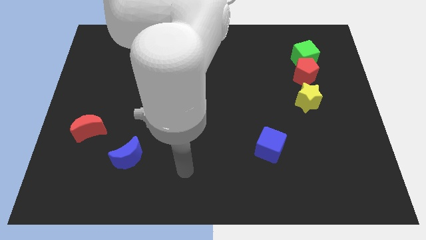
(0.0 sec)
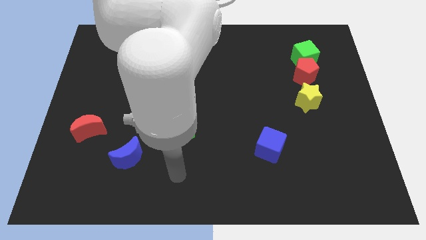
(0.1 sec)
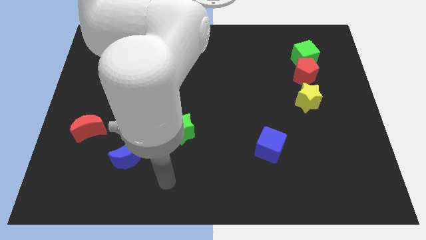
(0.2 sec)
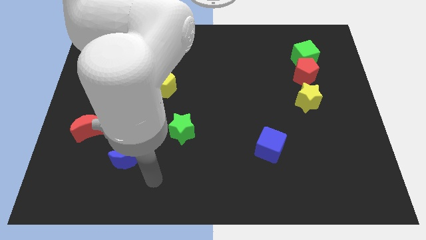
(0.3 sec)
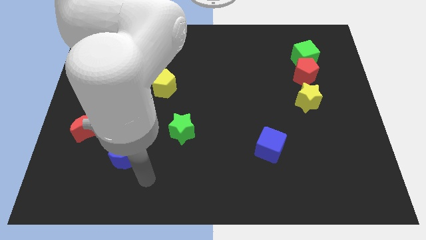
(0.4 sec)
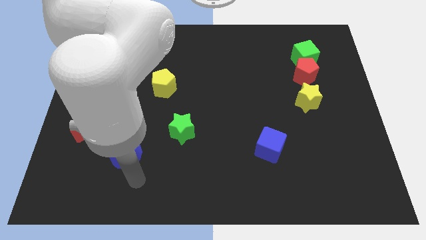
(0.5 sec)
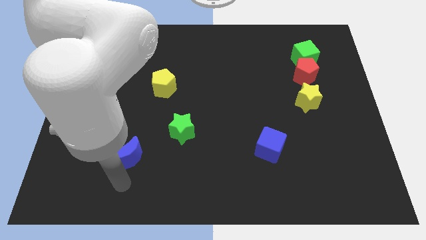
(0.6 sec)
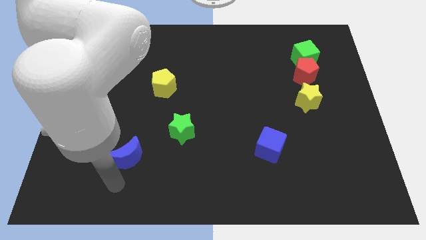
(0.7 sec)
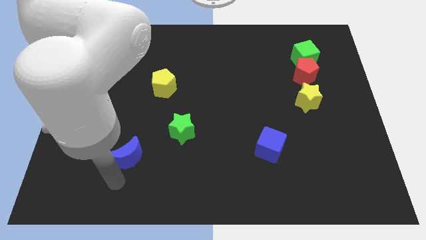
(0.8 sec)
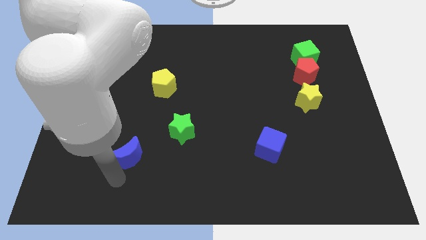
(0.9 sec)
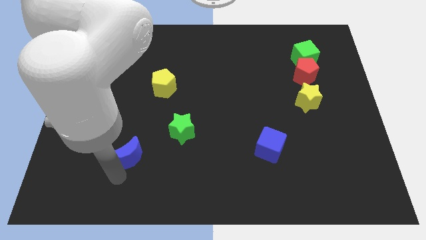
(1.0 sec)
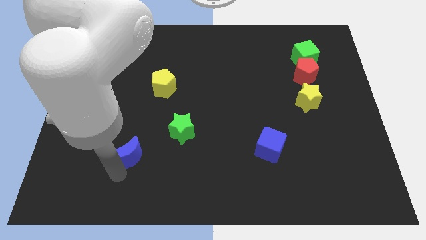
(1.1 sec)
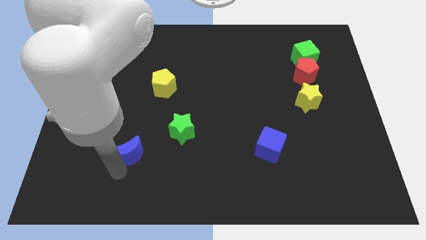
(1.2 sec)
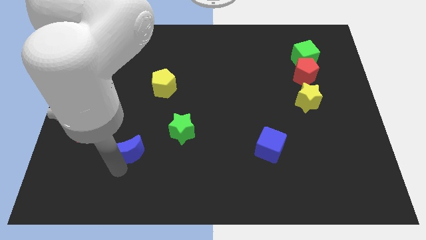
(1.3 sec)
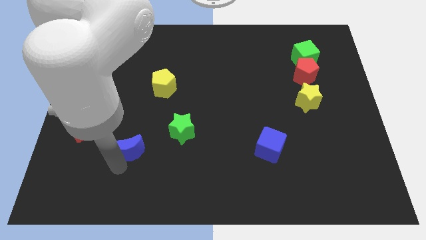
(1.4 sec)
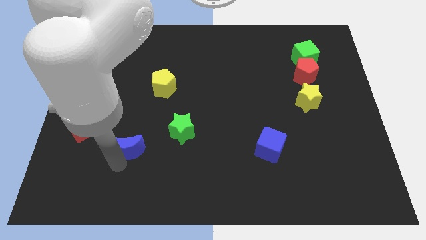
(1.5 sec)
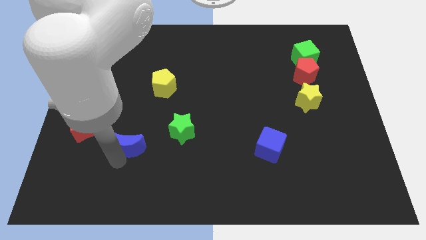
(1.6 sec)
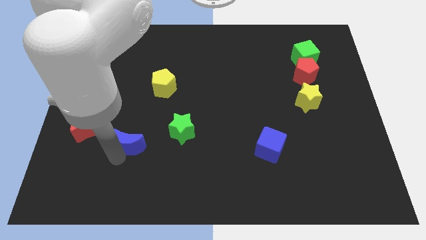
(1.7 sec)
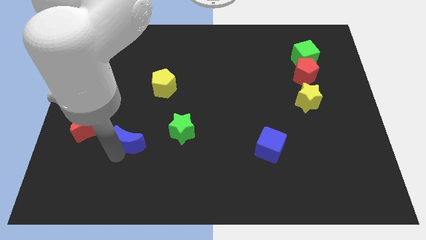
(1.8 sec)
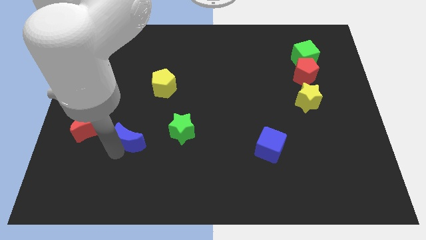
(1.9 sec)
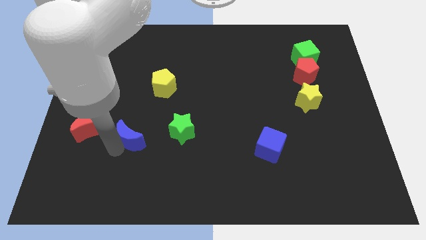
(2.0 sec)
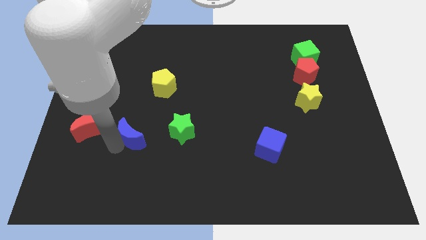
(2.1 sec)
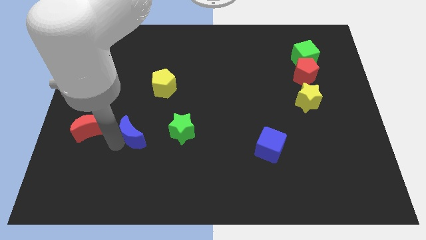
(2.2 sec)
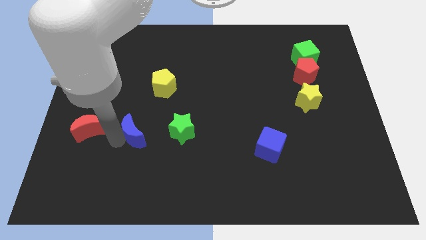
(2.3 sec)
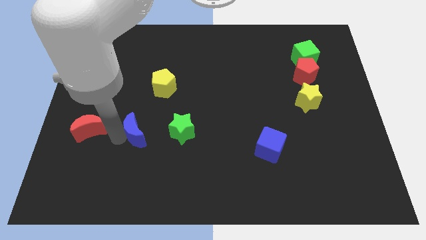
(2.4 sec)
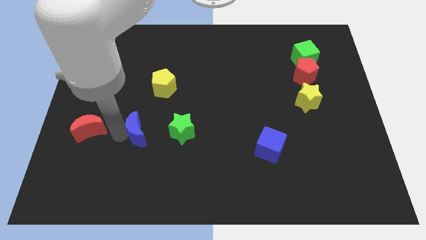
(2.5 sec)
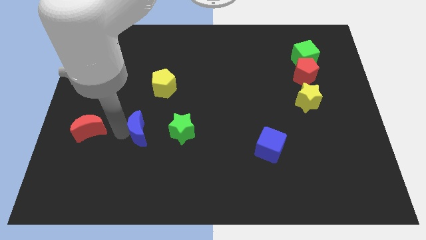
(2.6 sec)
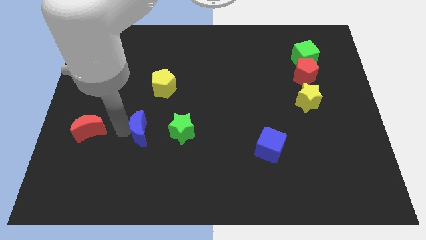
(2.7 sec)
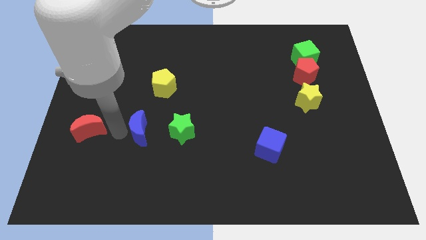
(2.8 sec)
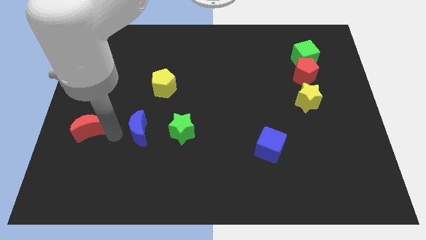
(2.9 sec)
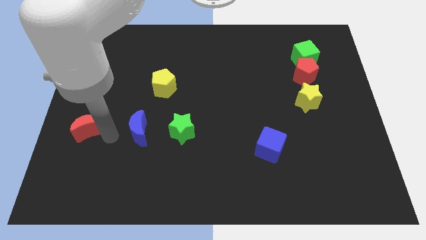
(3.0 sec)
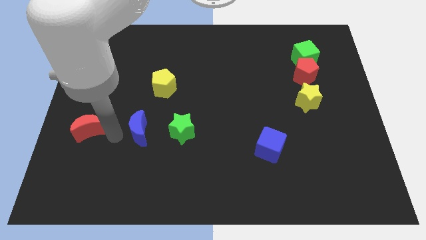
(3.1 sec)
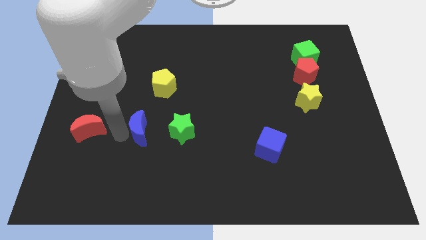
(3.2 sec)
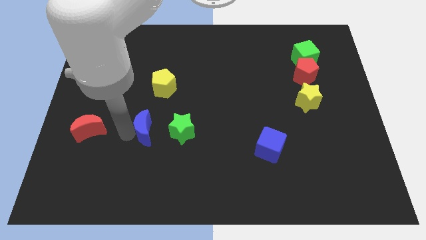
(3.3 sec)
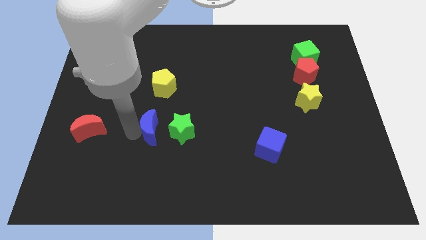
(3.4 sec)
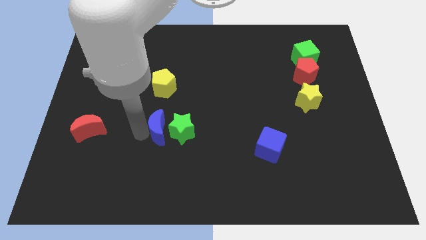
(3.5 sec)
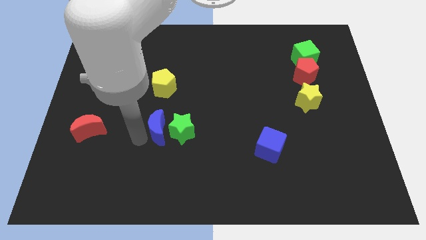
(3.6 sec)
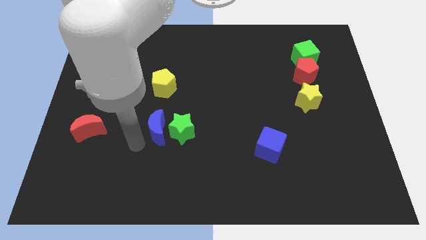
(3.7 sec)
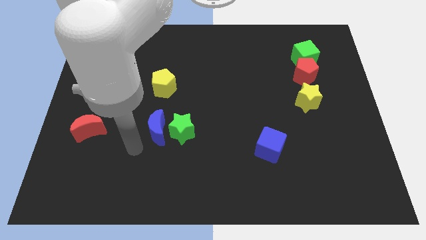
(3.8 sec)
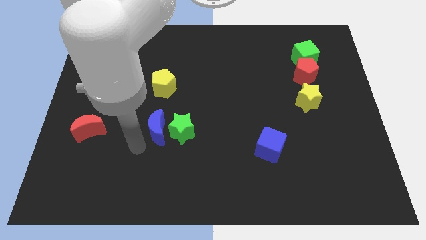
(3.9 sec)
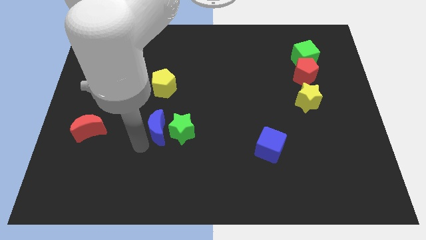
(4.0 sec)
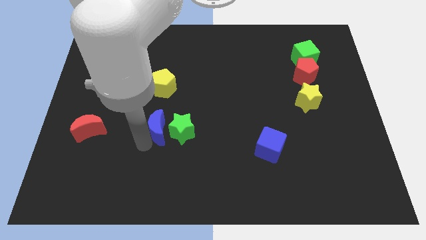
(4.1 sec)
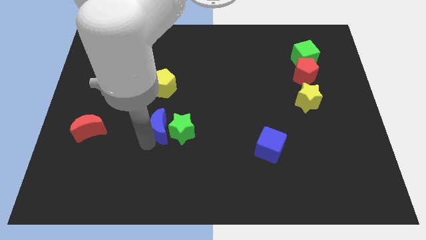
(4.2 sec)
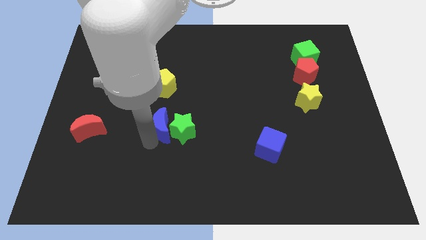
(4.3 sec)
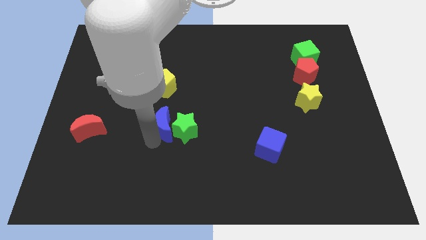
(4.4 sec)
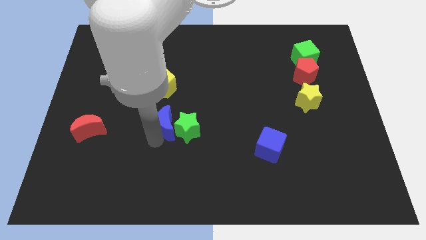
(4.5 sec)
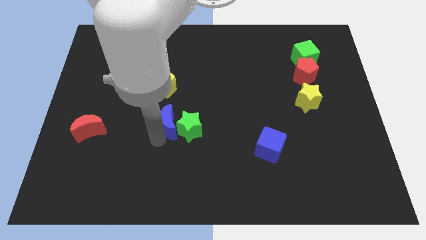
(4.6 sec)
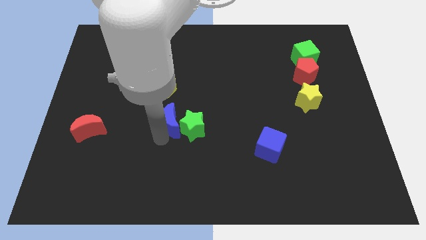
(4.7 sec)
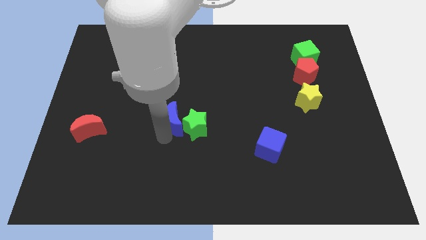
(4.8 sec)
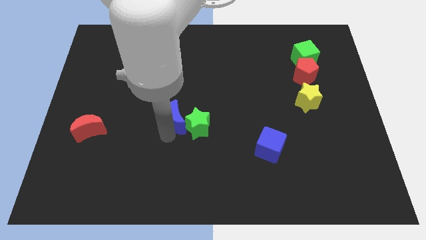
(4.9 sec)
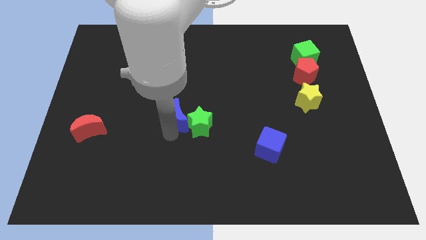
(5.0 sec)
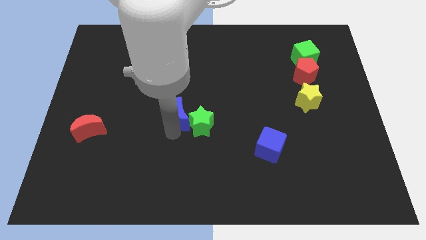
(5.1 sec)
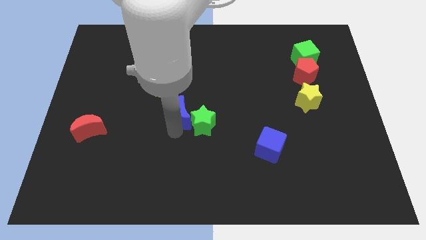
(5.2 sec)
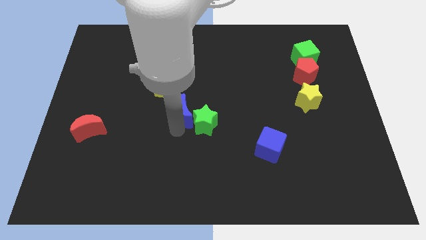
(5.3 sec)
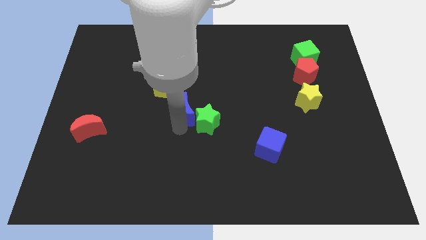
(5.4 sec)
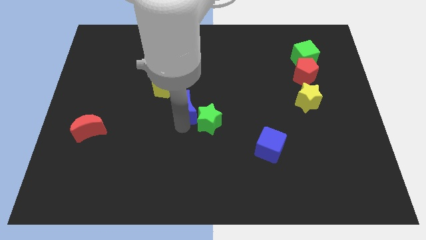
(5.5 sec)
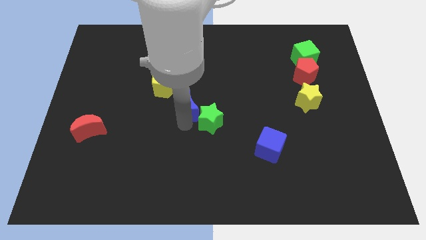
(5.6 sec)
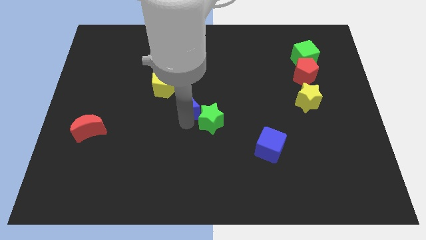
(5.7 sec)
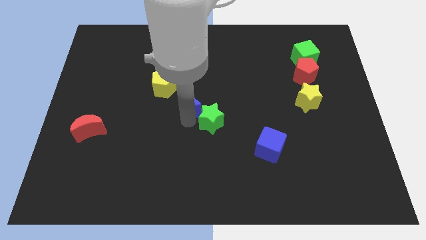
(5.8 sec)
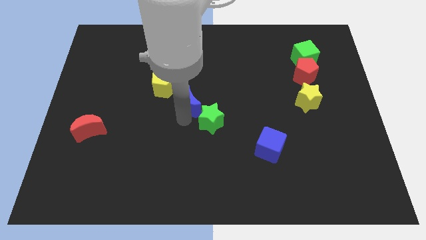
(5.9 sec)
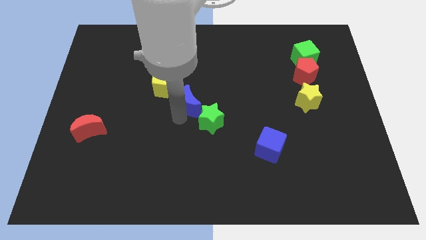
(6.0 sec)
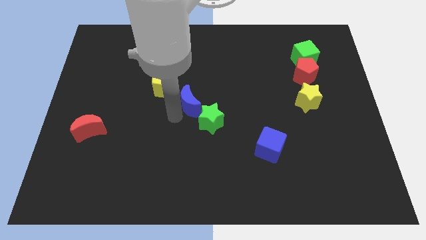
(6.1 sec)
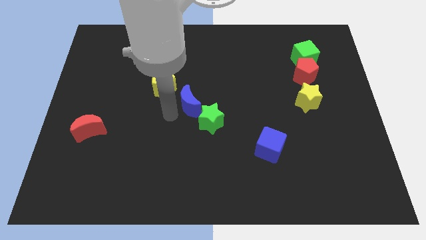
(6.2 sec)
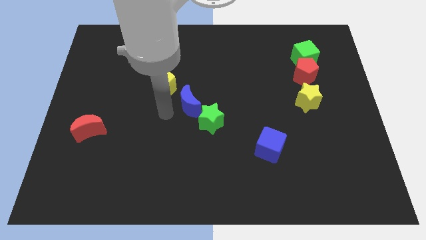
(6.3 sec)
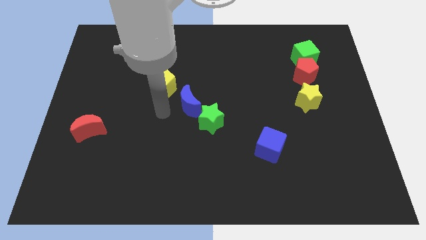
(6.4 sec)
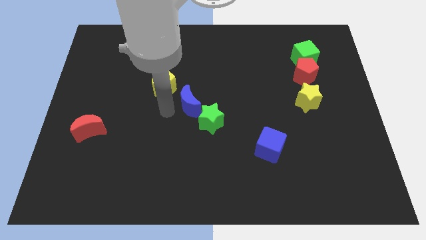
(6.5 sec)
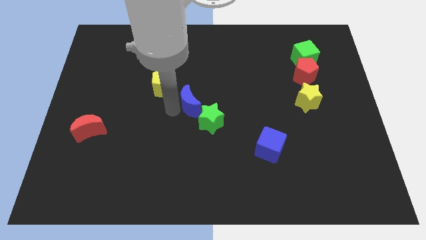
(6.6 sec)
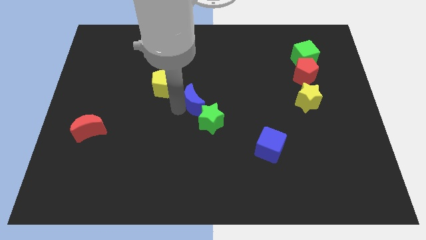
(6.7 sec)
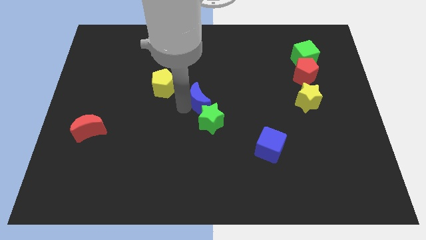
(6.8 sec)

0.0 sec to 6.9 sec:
slide the blue moon diagonally up and right

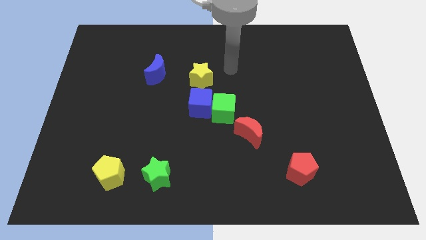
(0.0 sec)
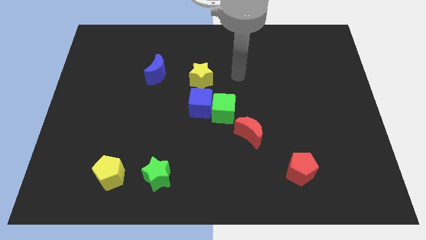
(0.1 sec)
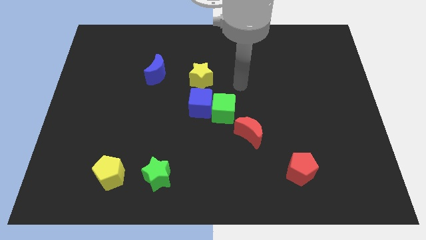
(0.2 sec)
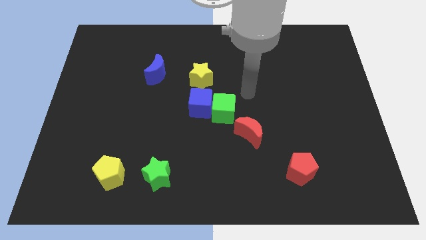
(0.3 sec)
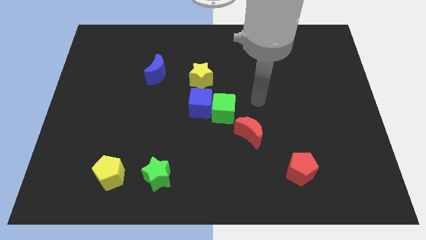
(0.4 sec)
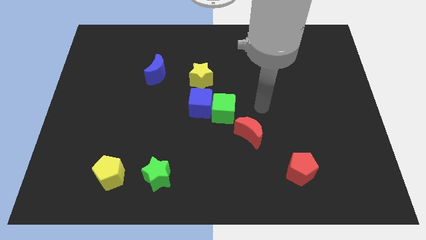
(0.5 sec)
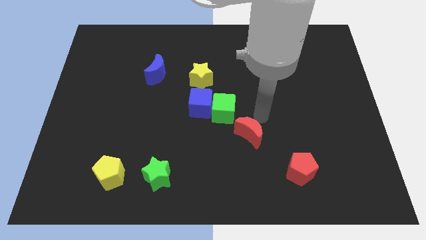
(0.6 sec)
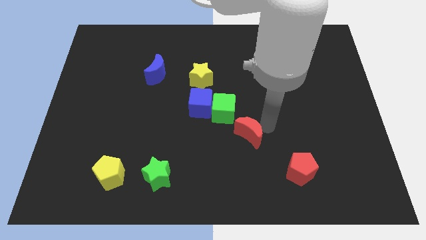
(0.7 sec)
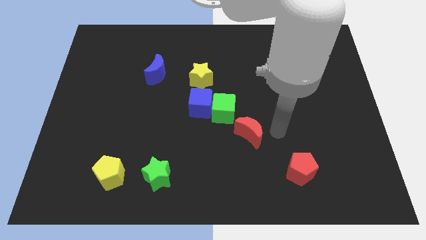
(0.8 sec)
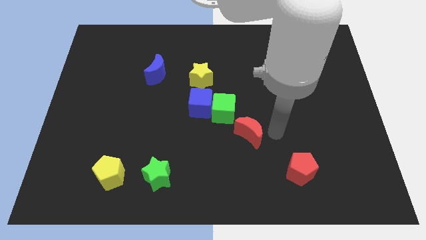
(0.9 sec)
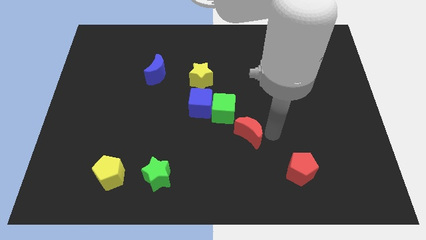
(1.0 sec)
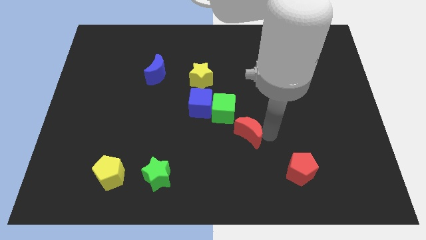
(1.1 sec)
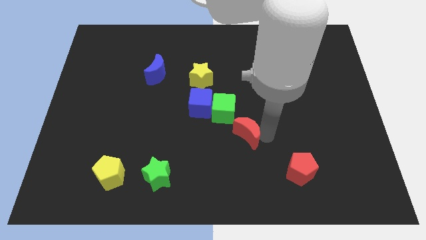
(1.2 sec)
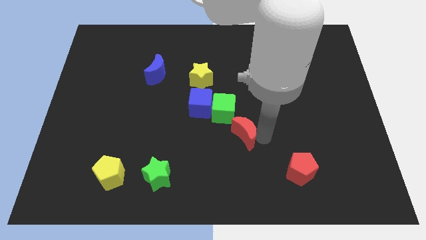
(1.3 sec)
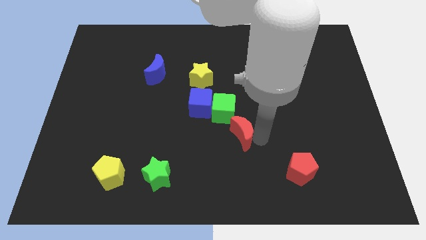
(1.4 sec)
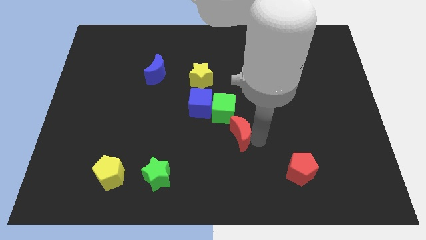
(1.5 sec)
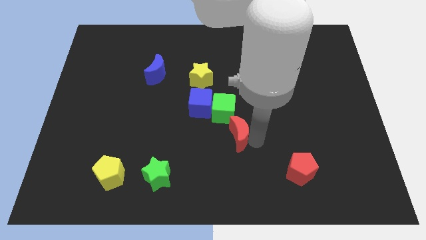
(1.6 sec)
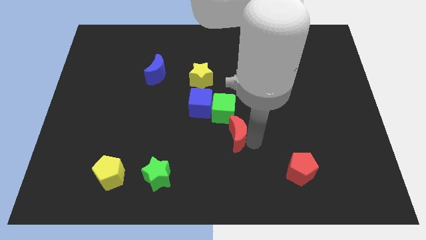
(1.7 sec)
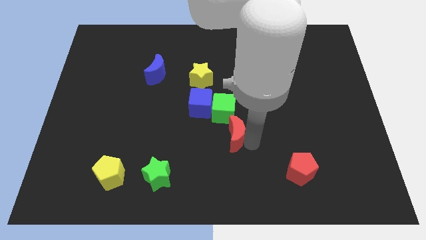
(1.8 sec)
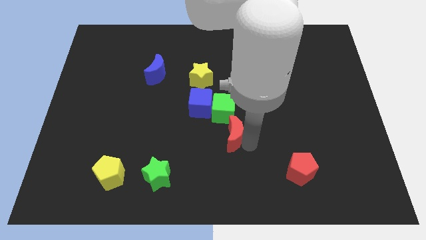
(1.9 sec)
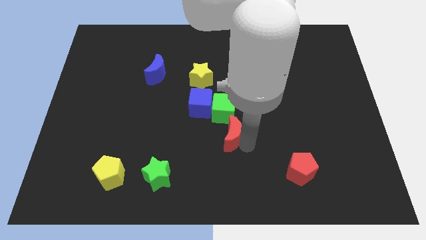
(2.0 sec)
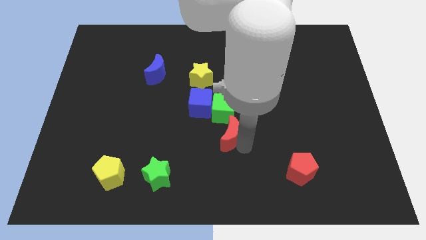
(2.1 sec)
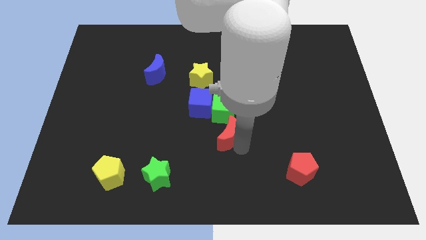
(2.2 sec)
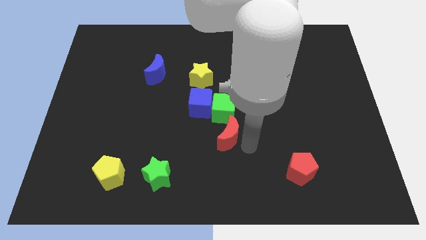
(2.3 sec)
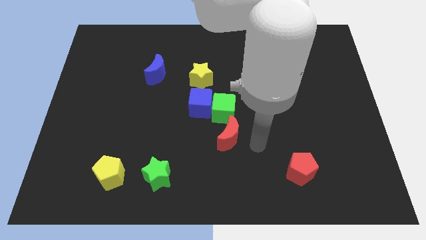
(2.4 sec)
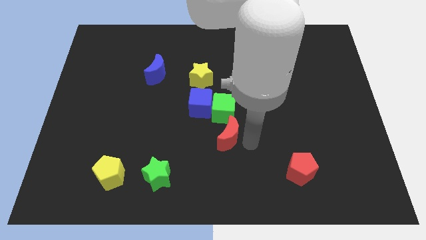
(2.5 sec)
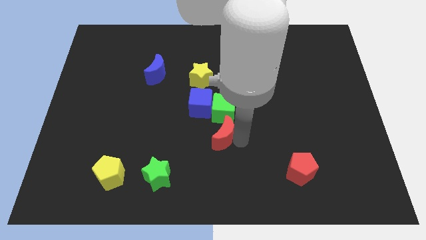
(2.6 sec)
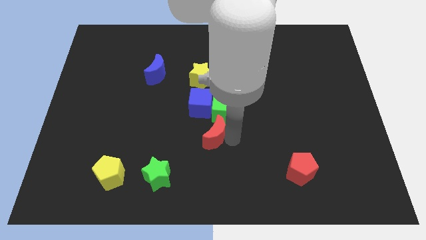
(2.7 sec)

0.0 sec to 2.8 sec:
slide the red moon left a little
